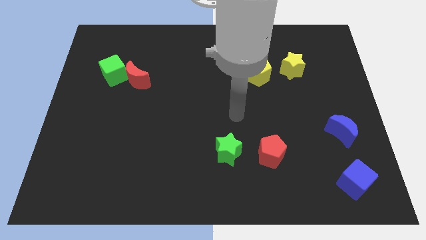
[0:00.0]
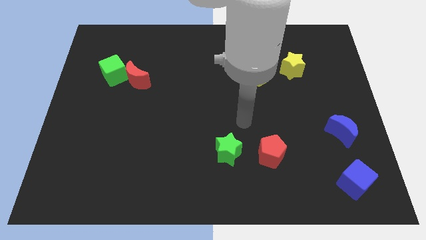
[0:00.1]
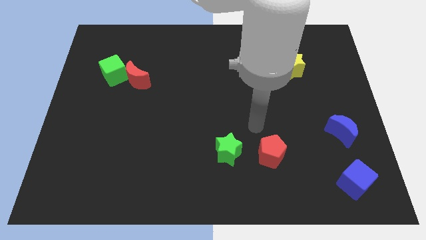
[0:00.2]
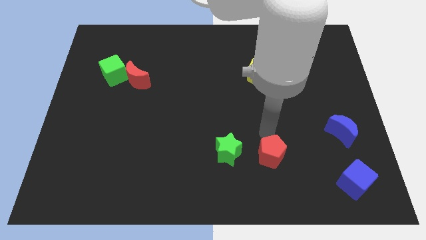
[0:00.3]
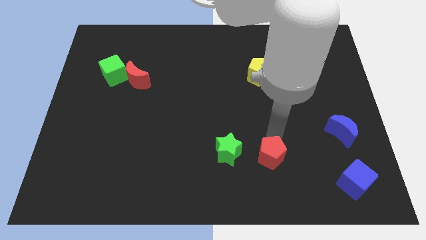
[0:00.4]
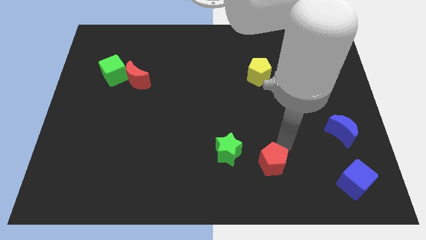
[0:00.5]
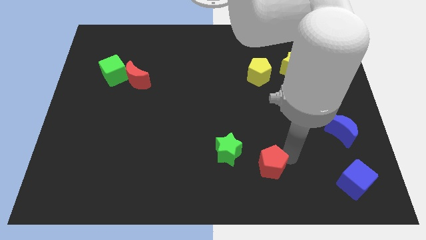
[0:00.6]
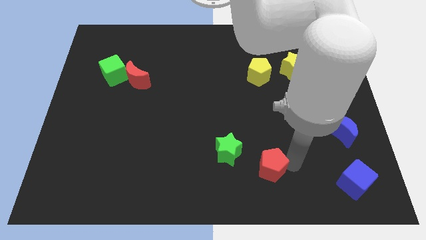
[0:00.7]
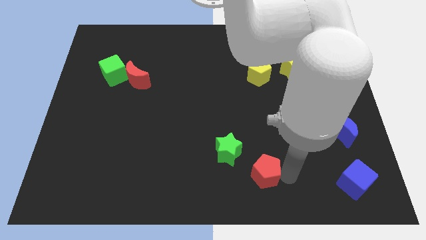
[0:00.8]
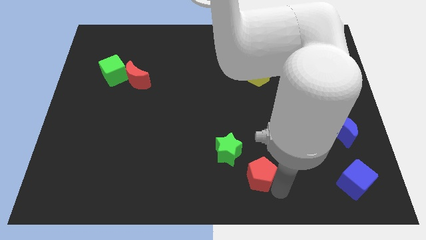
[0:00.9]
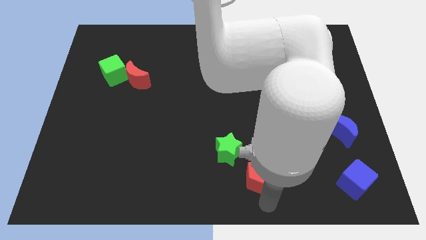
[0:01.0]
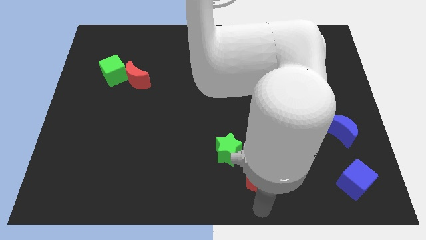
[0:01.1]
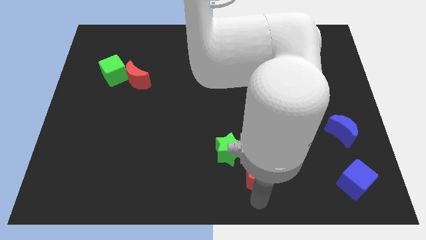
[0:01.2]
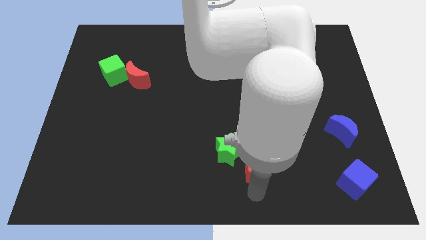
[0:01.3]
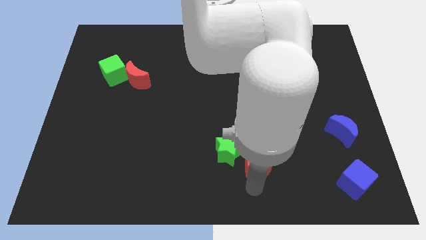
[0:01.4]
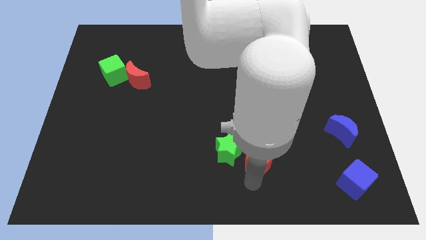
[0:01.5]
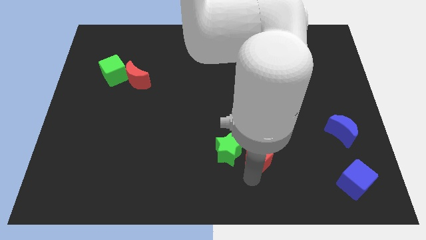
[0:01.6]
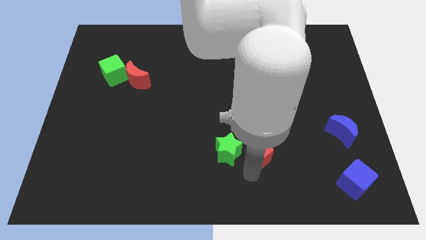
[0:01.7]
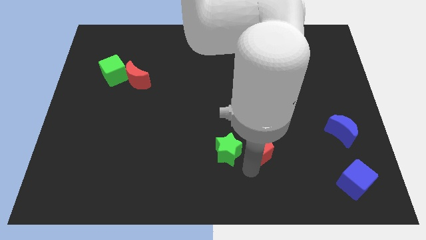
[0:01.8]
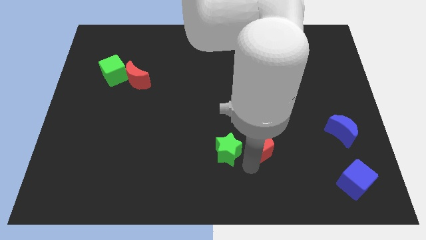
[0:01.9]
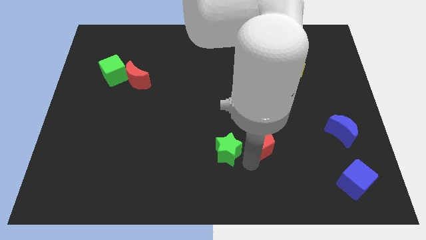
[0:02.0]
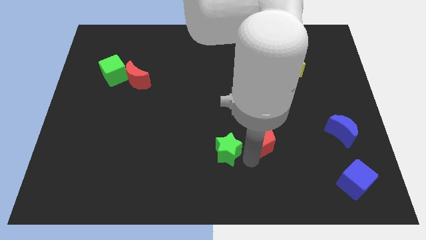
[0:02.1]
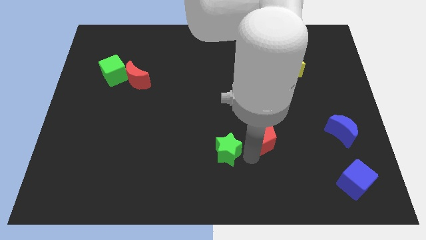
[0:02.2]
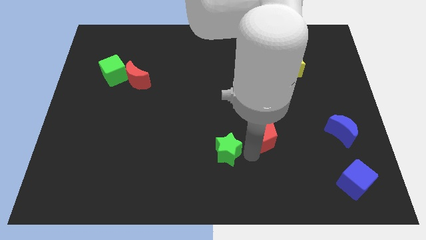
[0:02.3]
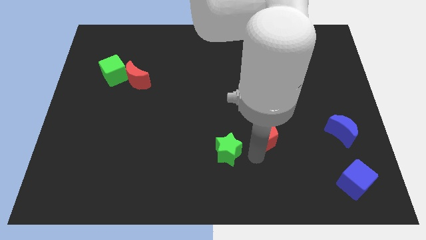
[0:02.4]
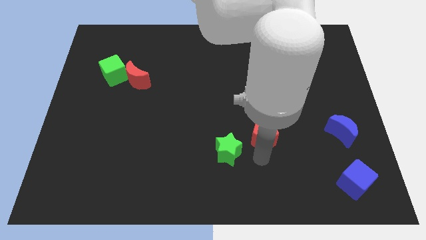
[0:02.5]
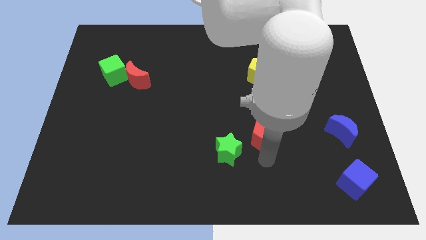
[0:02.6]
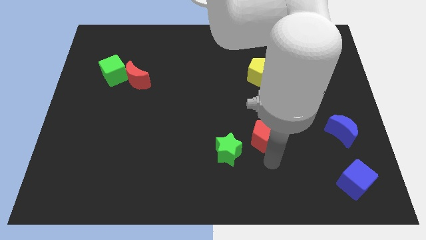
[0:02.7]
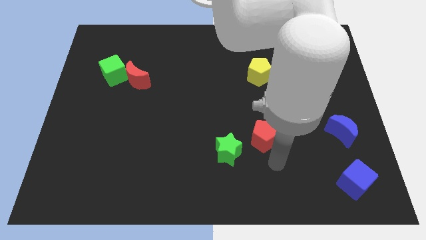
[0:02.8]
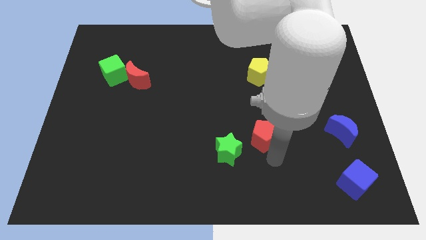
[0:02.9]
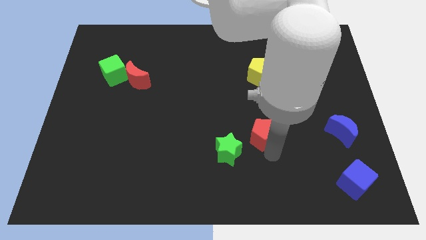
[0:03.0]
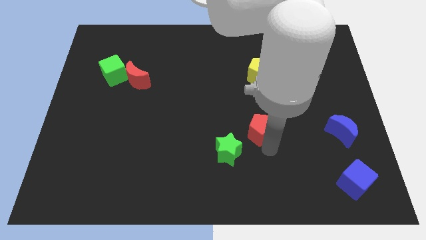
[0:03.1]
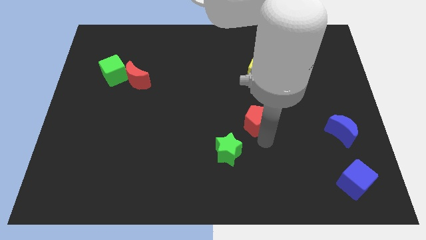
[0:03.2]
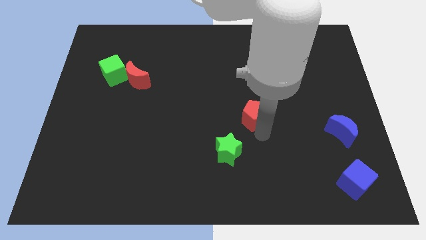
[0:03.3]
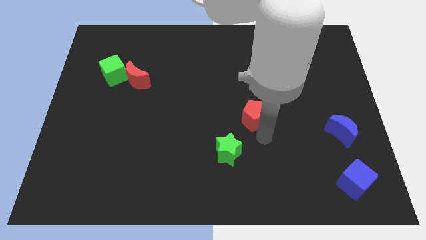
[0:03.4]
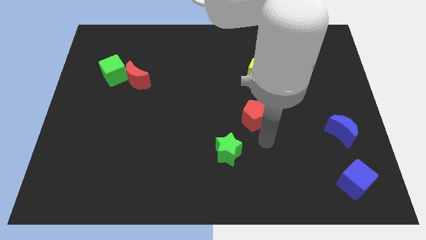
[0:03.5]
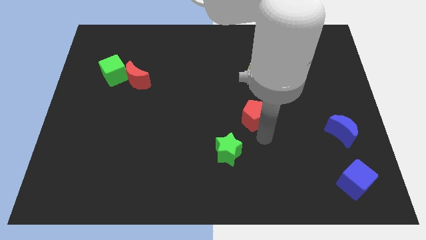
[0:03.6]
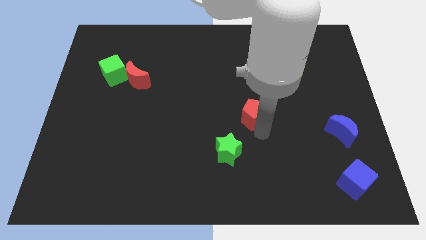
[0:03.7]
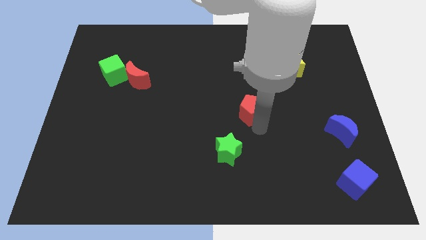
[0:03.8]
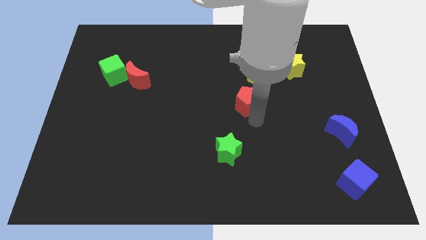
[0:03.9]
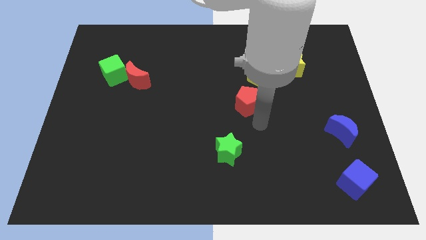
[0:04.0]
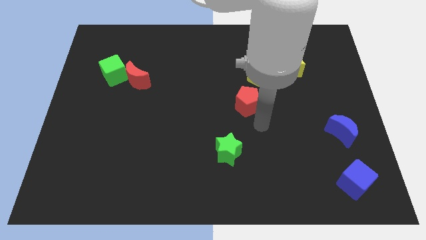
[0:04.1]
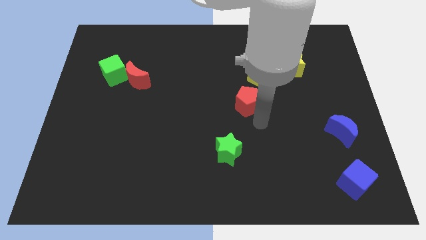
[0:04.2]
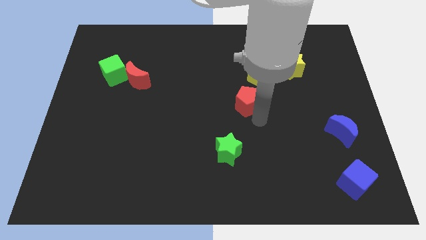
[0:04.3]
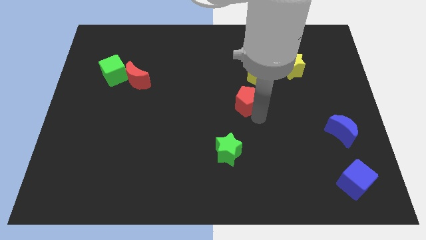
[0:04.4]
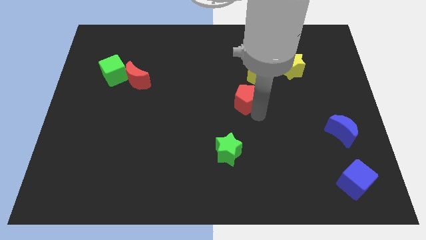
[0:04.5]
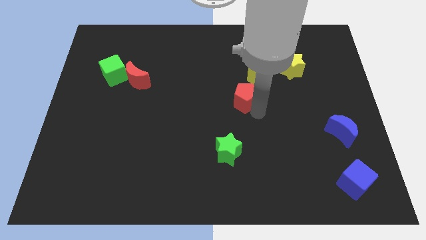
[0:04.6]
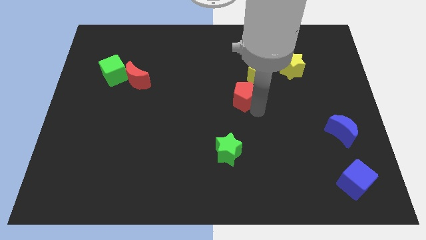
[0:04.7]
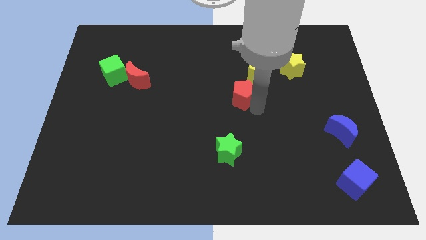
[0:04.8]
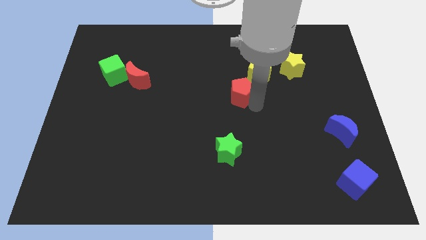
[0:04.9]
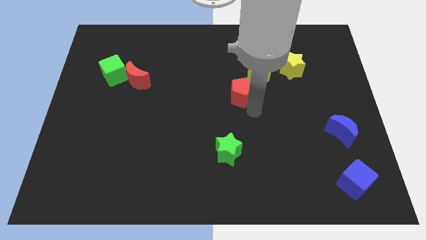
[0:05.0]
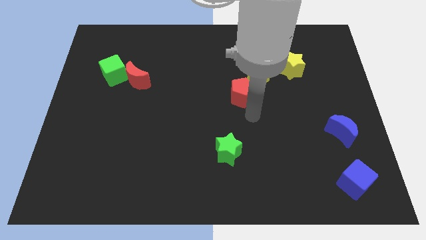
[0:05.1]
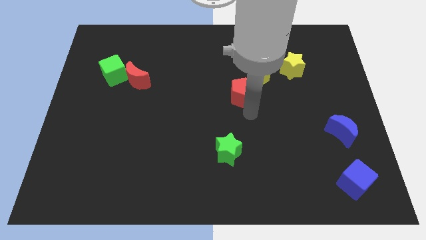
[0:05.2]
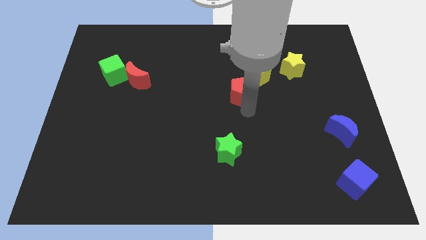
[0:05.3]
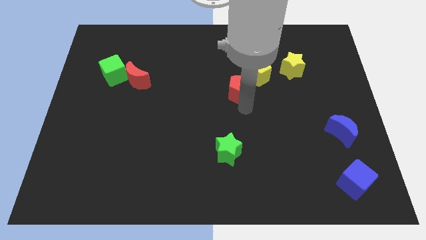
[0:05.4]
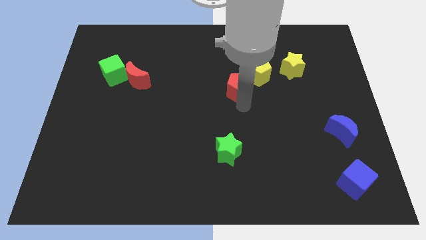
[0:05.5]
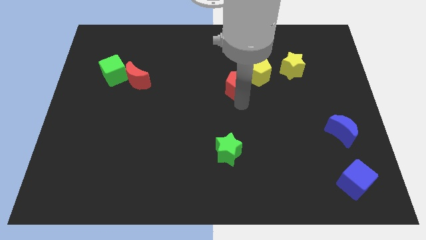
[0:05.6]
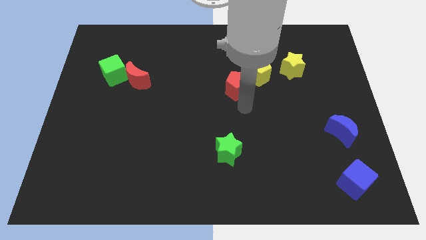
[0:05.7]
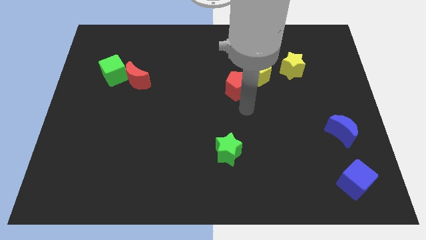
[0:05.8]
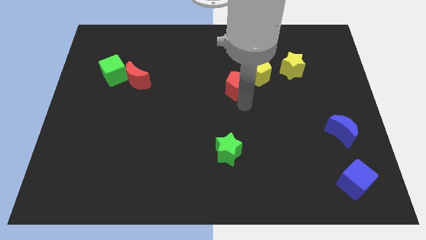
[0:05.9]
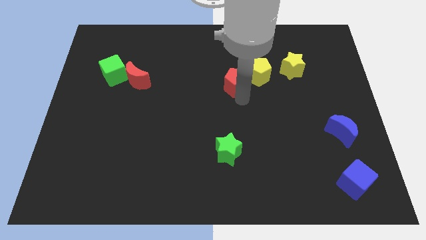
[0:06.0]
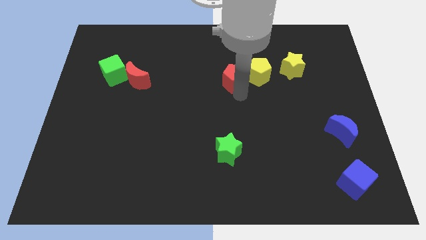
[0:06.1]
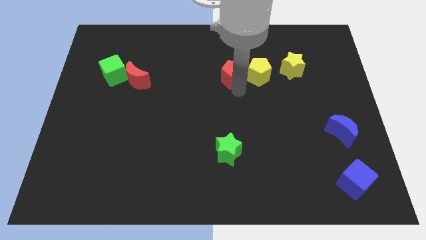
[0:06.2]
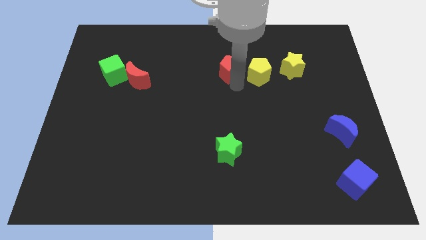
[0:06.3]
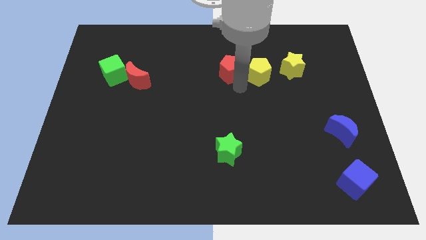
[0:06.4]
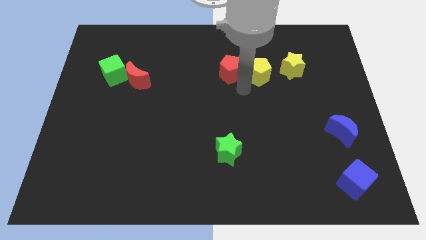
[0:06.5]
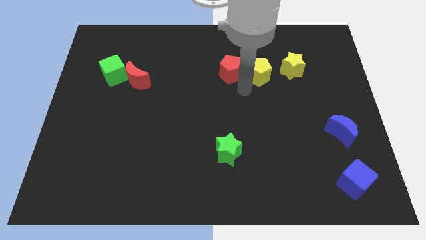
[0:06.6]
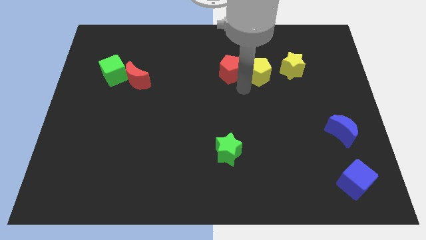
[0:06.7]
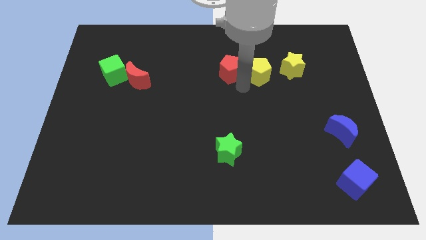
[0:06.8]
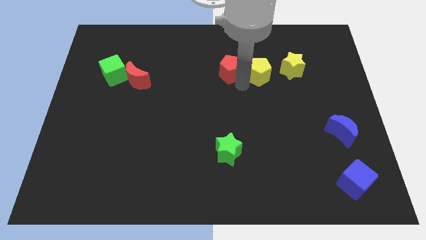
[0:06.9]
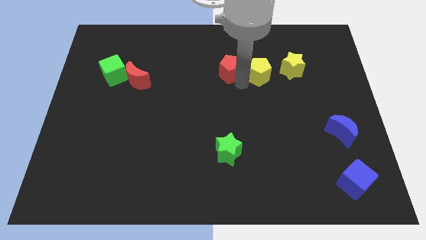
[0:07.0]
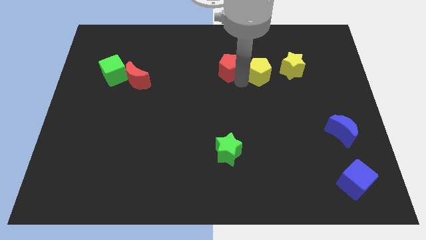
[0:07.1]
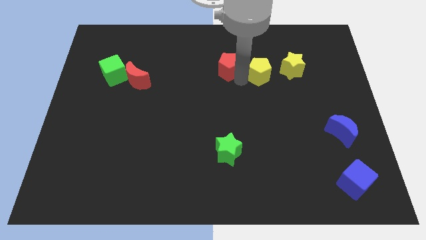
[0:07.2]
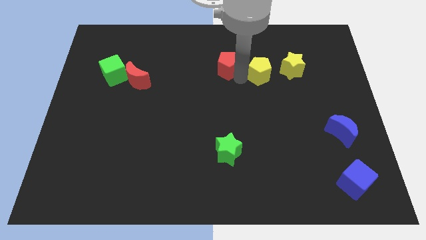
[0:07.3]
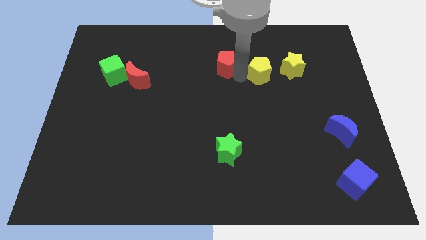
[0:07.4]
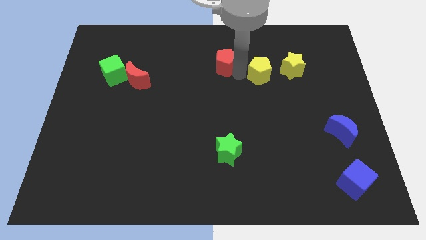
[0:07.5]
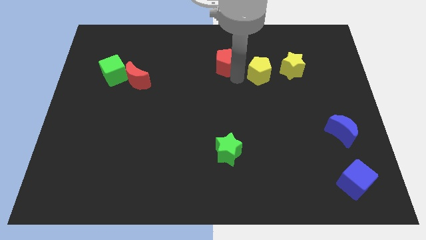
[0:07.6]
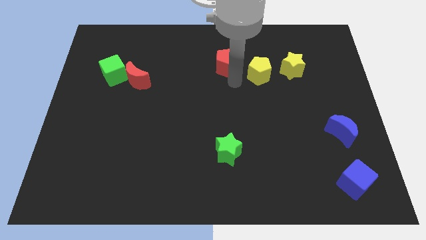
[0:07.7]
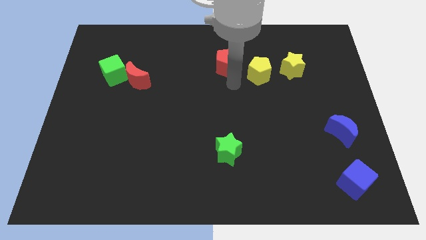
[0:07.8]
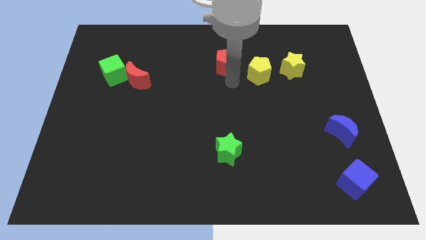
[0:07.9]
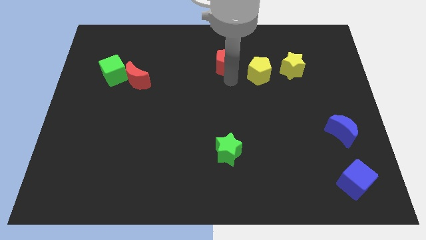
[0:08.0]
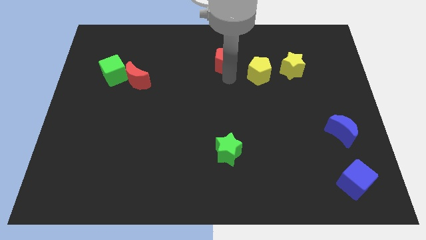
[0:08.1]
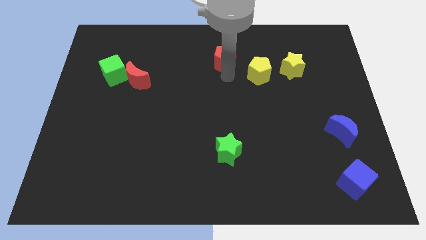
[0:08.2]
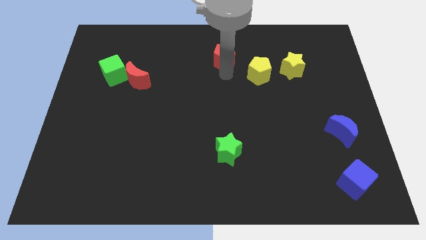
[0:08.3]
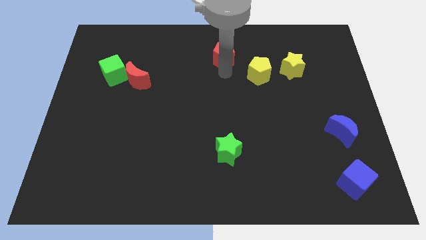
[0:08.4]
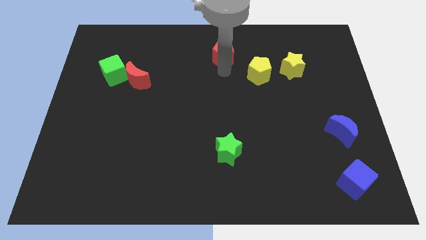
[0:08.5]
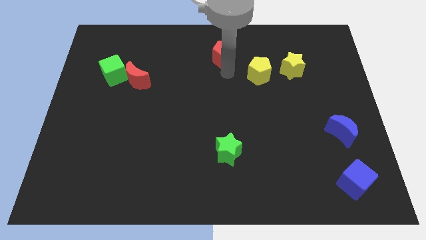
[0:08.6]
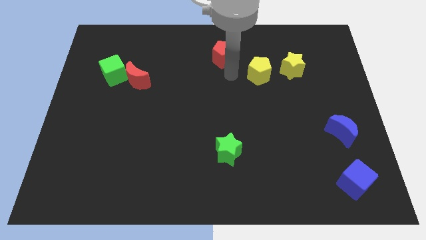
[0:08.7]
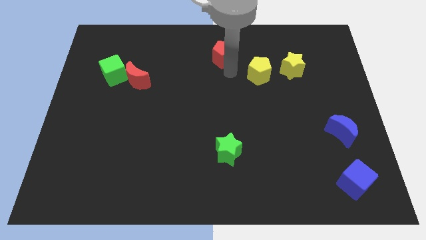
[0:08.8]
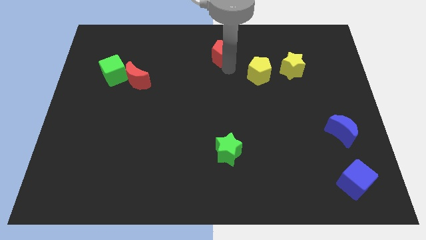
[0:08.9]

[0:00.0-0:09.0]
put the red pentagon to the top
